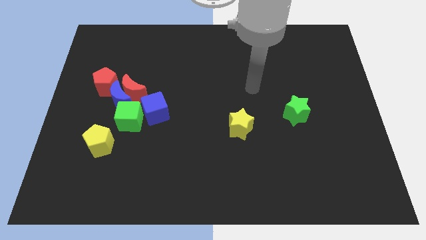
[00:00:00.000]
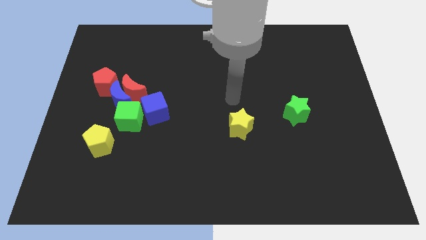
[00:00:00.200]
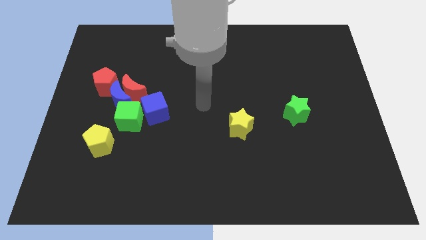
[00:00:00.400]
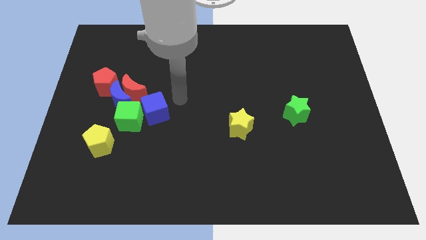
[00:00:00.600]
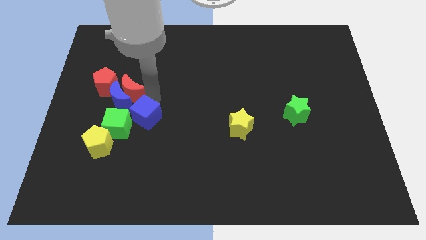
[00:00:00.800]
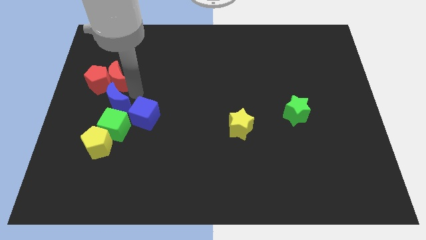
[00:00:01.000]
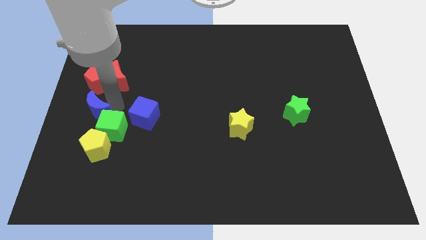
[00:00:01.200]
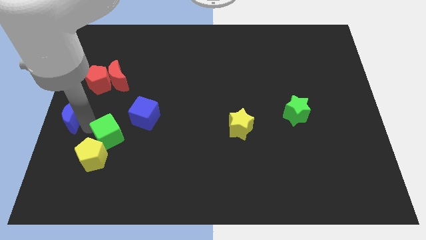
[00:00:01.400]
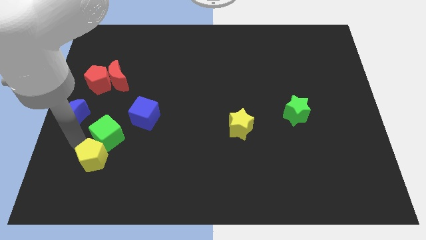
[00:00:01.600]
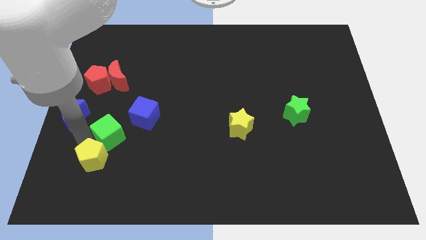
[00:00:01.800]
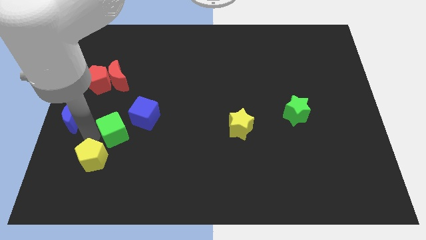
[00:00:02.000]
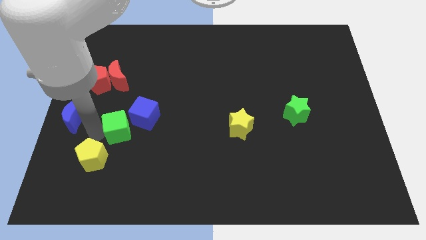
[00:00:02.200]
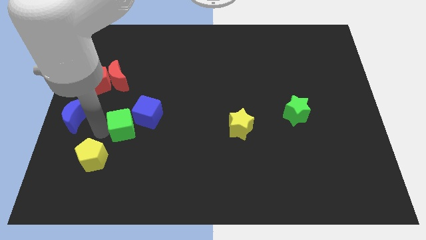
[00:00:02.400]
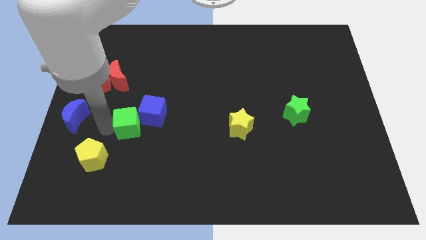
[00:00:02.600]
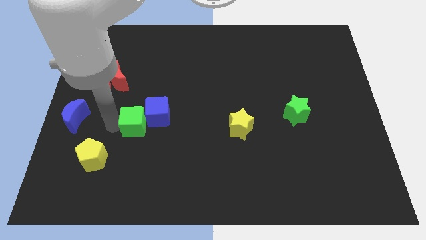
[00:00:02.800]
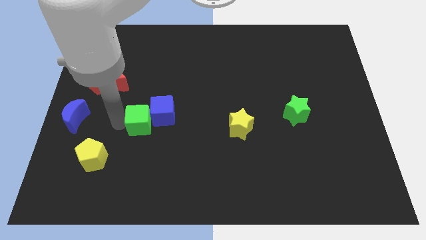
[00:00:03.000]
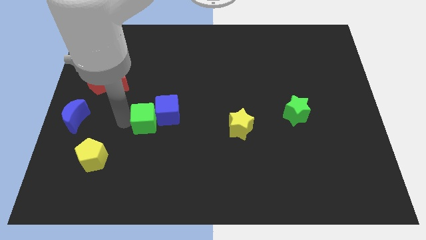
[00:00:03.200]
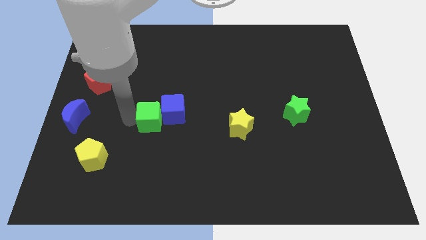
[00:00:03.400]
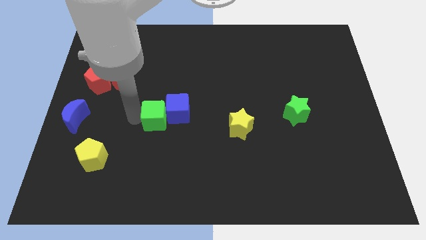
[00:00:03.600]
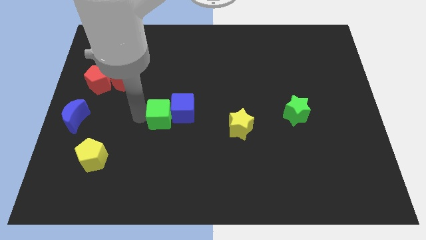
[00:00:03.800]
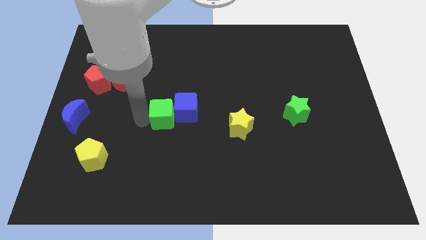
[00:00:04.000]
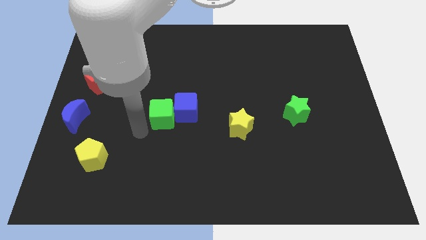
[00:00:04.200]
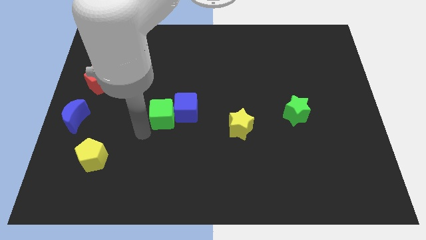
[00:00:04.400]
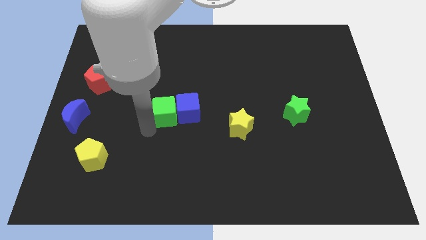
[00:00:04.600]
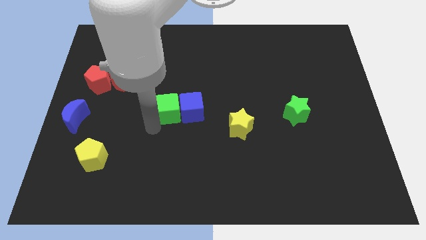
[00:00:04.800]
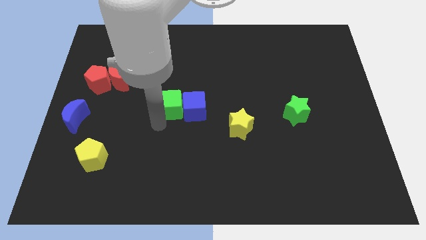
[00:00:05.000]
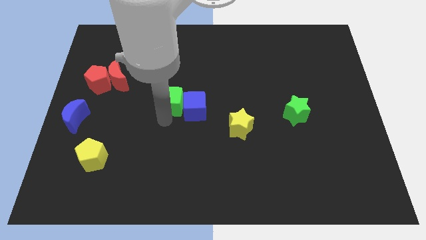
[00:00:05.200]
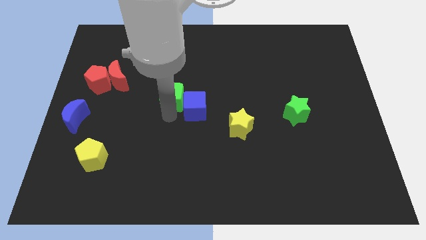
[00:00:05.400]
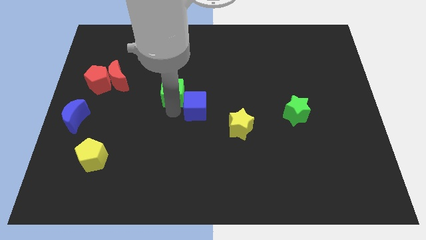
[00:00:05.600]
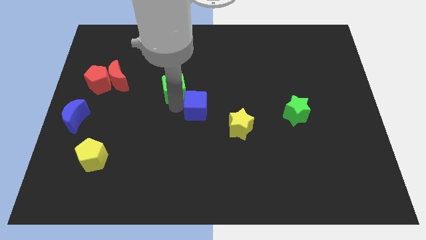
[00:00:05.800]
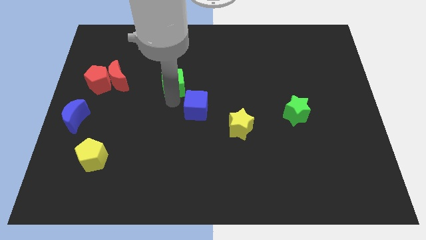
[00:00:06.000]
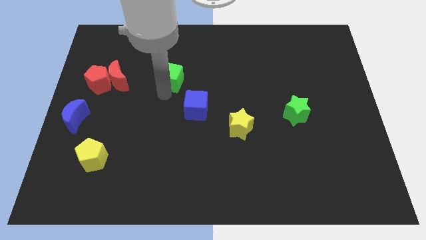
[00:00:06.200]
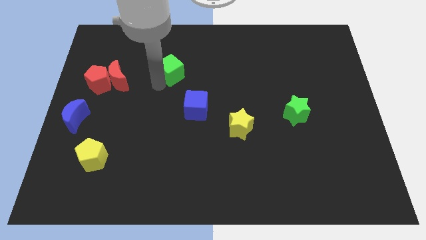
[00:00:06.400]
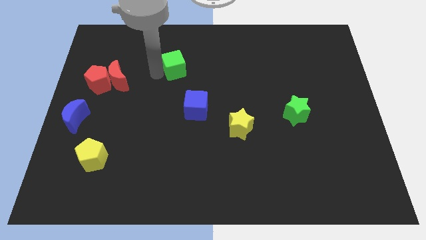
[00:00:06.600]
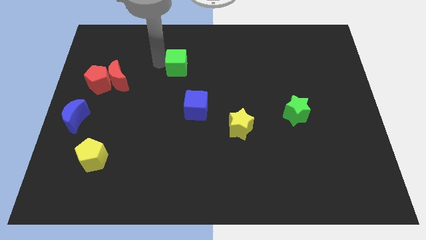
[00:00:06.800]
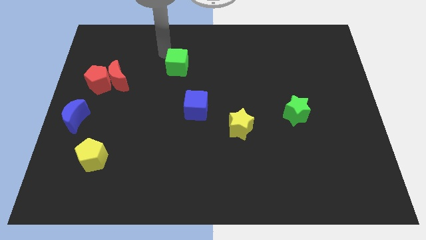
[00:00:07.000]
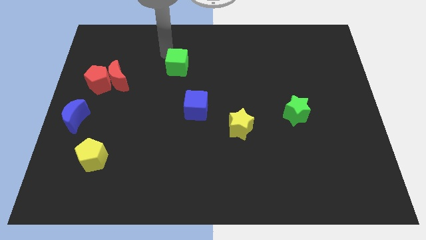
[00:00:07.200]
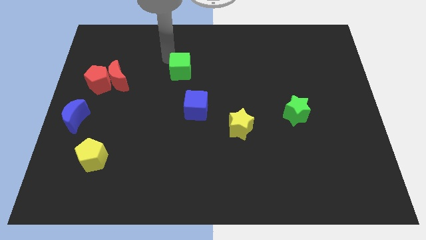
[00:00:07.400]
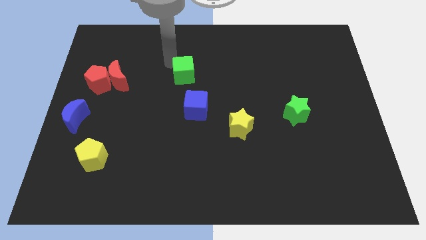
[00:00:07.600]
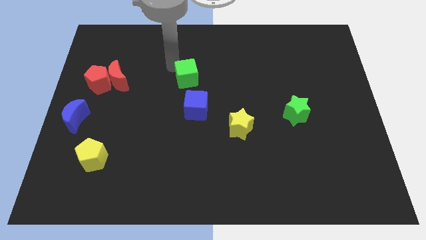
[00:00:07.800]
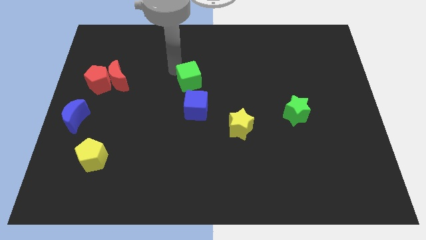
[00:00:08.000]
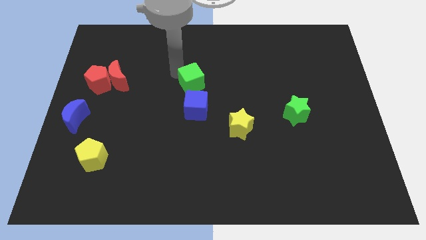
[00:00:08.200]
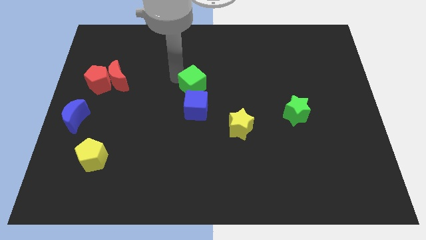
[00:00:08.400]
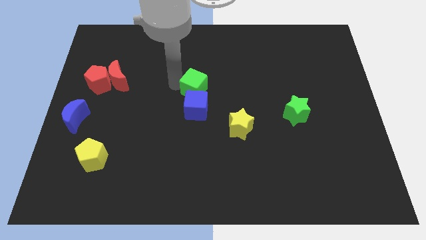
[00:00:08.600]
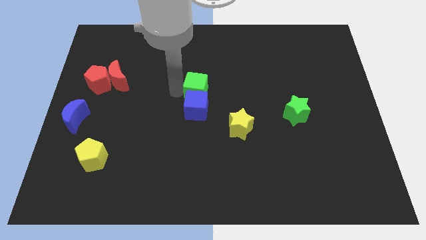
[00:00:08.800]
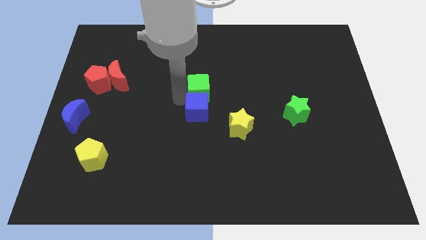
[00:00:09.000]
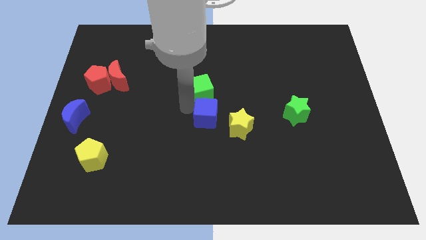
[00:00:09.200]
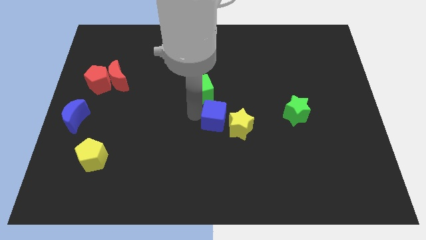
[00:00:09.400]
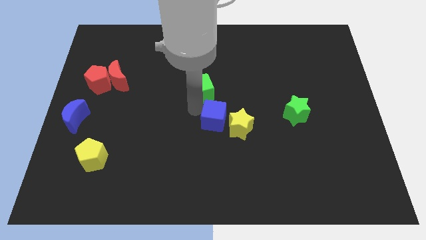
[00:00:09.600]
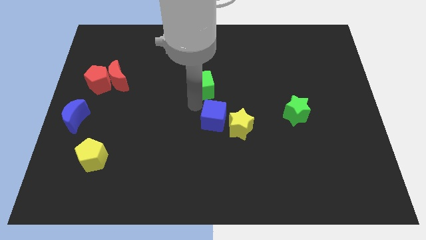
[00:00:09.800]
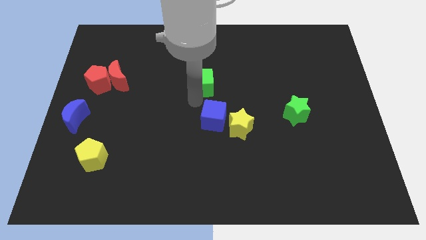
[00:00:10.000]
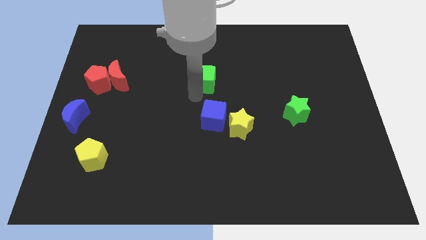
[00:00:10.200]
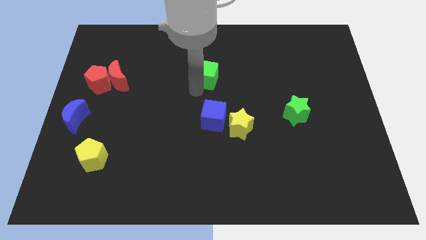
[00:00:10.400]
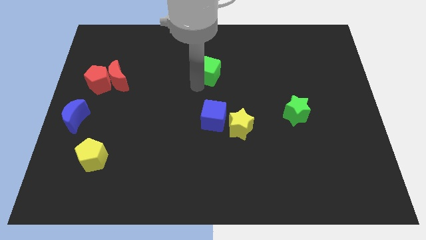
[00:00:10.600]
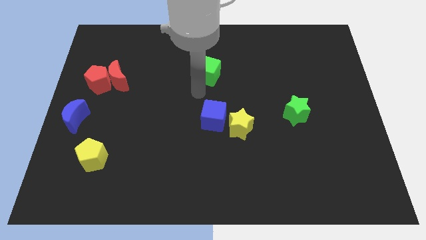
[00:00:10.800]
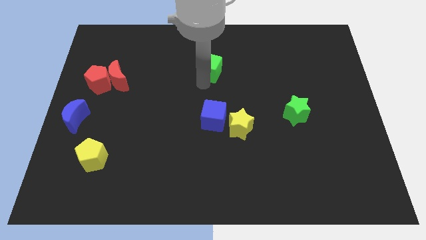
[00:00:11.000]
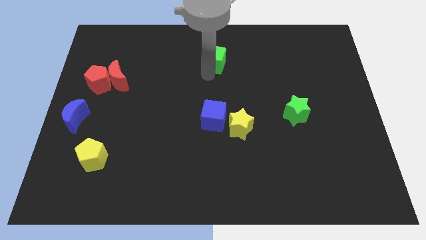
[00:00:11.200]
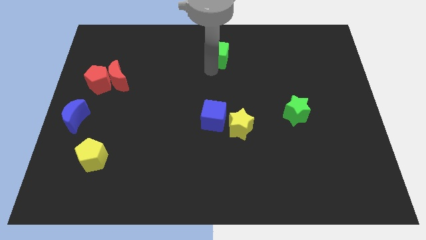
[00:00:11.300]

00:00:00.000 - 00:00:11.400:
put the green cube to the top side
